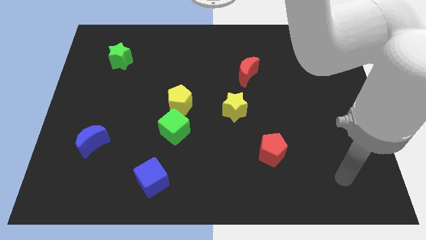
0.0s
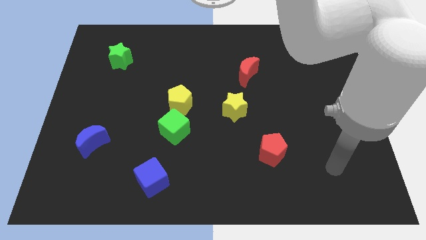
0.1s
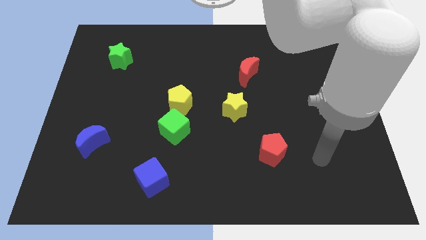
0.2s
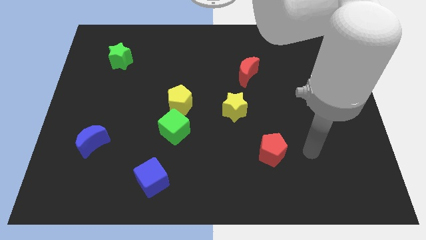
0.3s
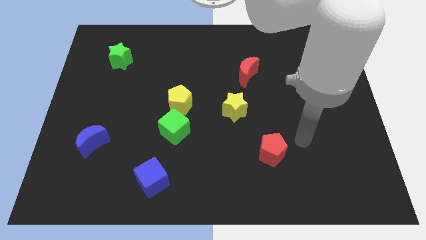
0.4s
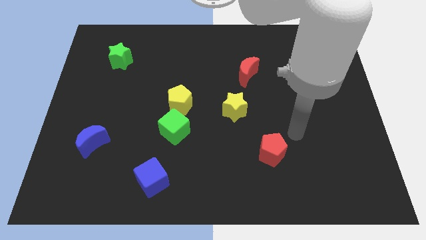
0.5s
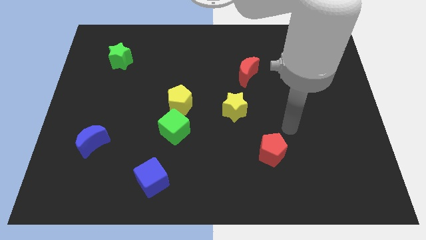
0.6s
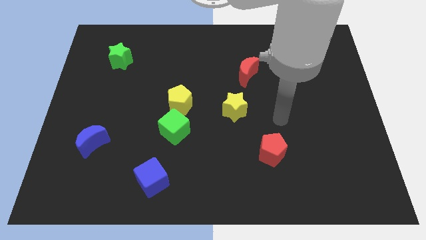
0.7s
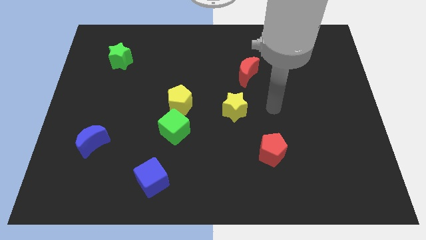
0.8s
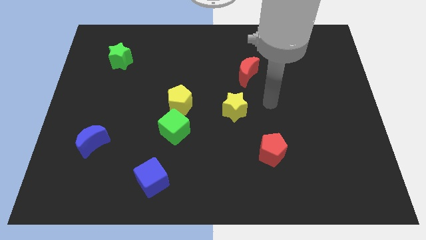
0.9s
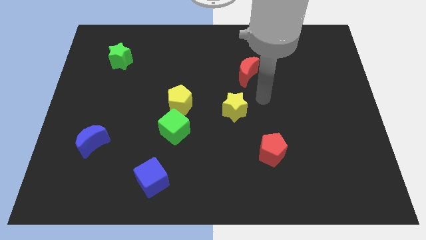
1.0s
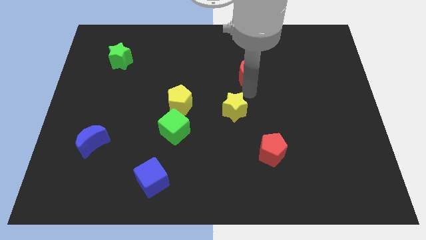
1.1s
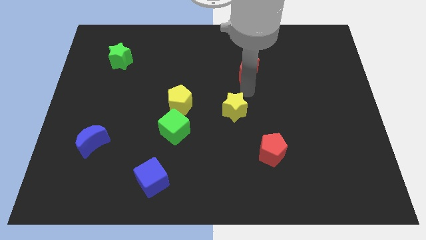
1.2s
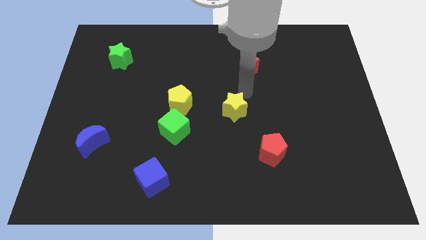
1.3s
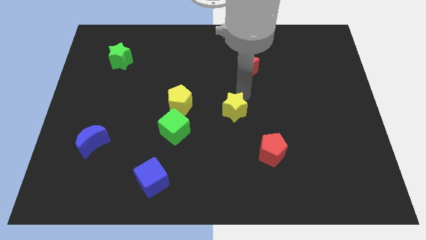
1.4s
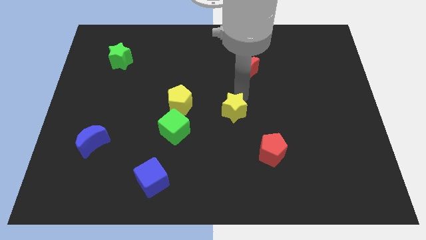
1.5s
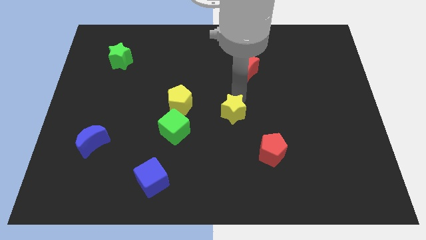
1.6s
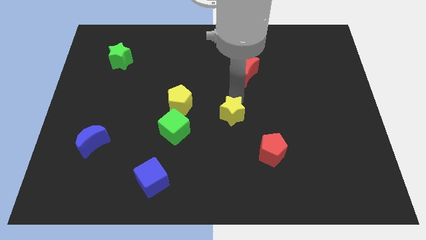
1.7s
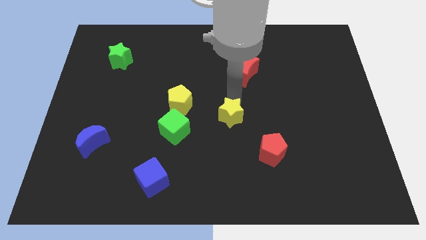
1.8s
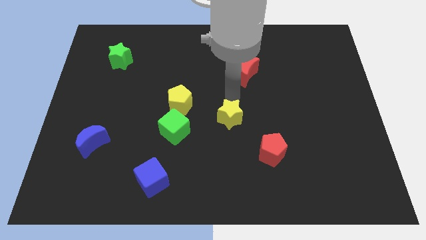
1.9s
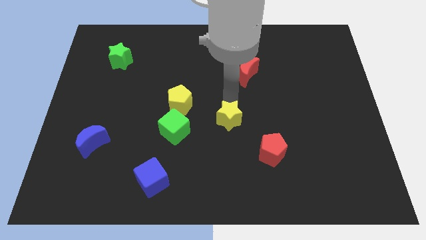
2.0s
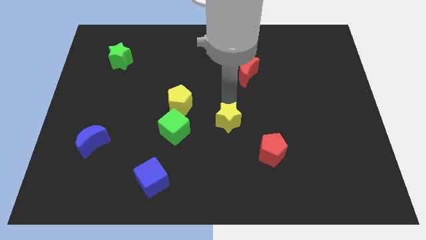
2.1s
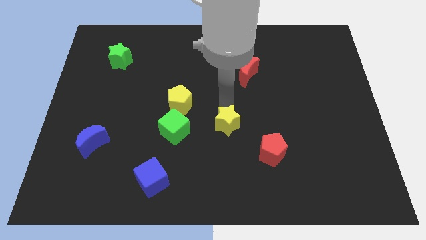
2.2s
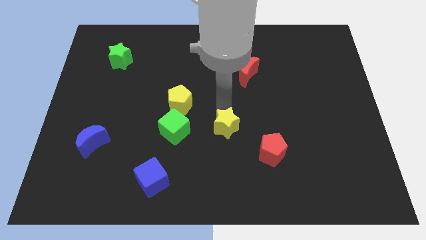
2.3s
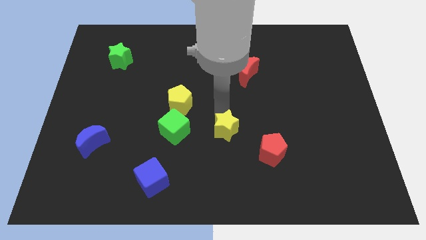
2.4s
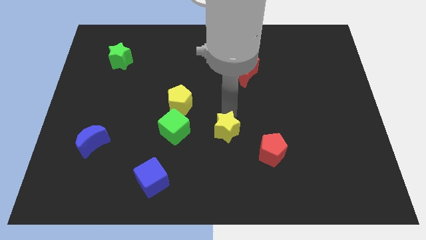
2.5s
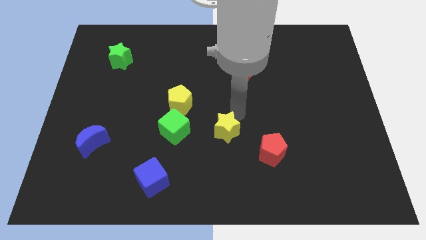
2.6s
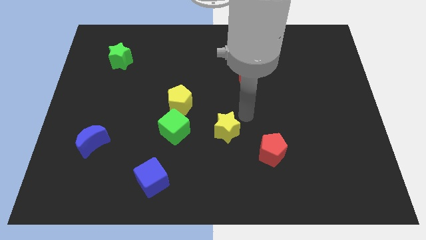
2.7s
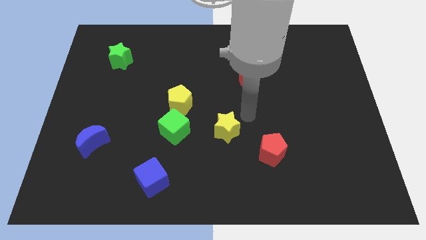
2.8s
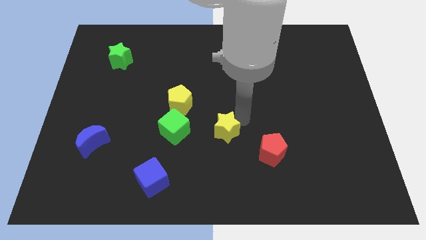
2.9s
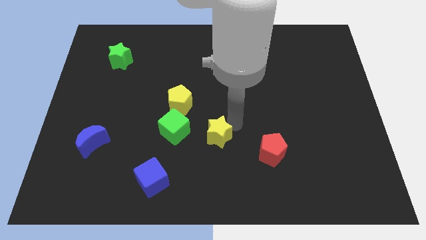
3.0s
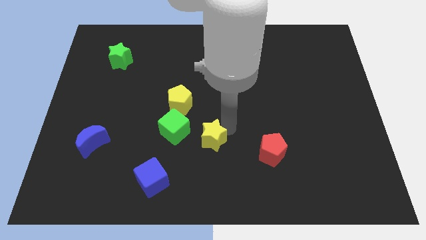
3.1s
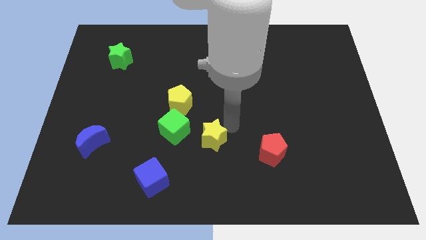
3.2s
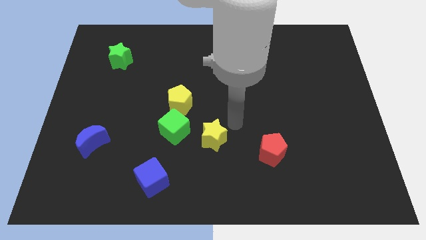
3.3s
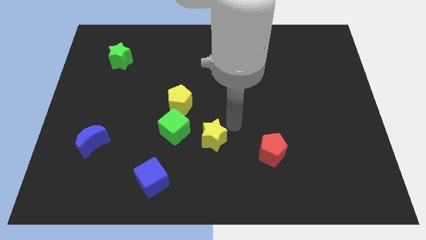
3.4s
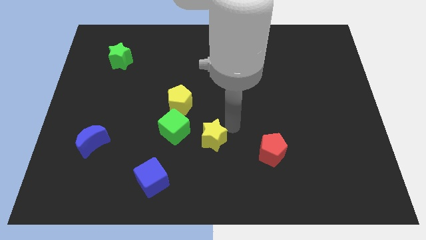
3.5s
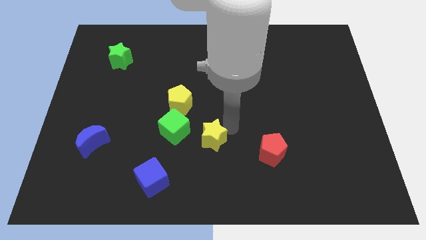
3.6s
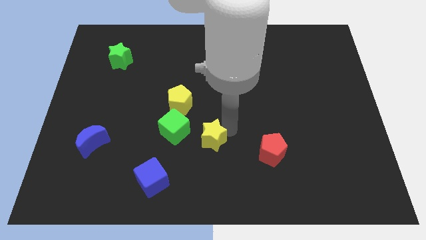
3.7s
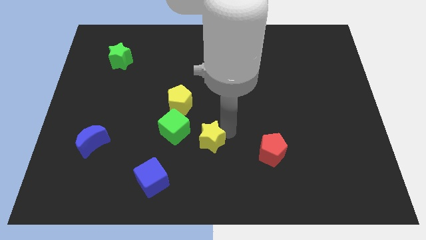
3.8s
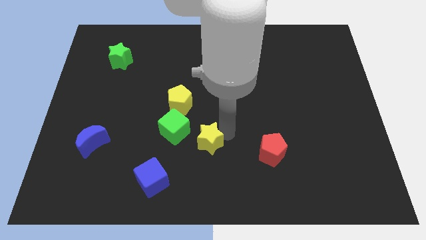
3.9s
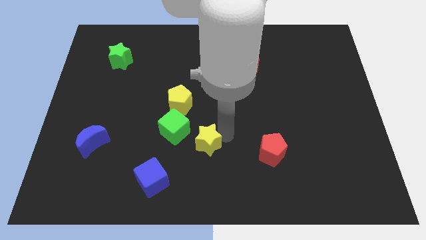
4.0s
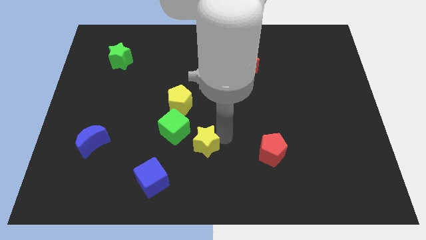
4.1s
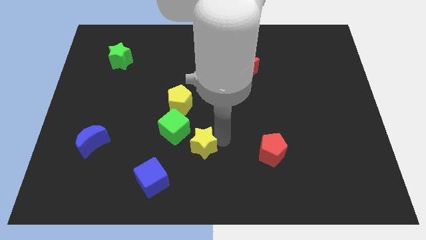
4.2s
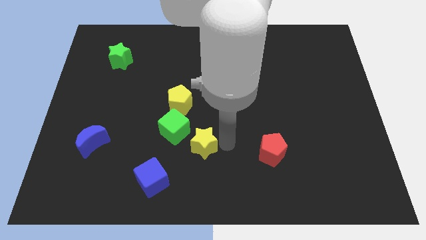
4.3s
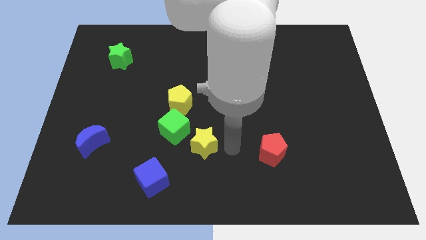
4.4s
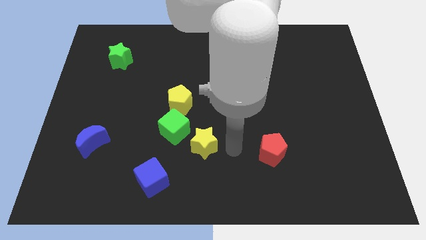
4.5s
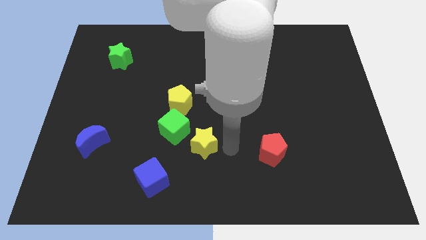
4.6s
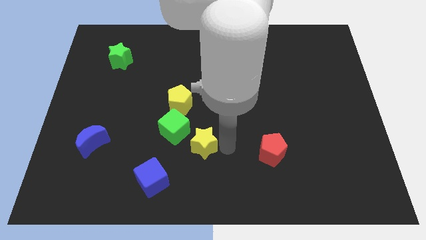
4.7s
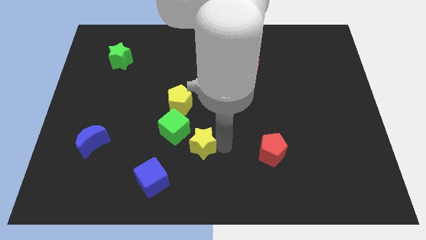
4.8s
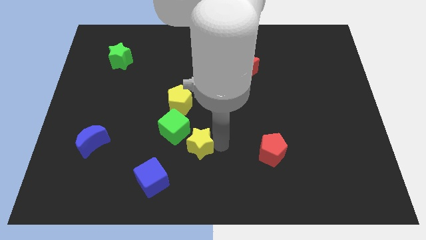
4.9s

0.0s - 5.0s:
move the yellow star to the bottom of the yellow pentagon

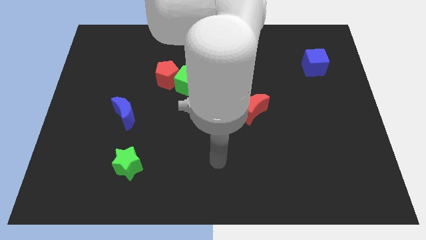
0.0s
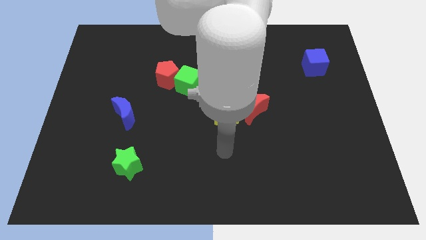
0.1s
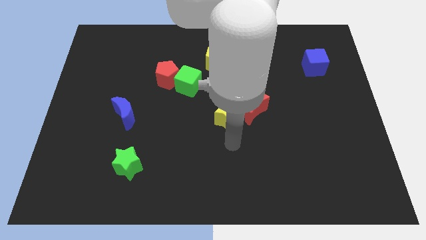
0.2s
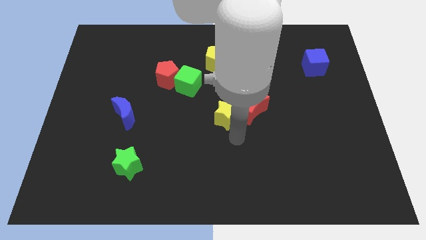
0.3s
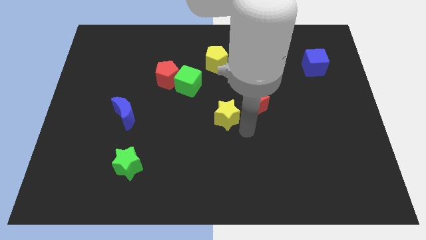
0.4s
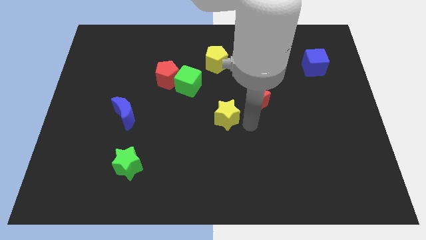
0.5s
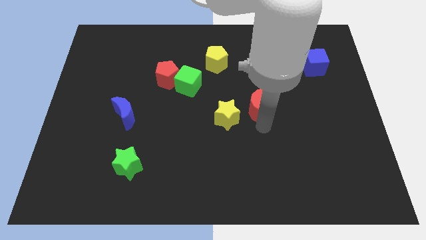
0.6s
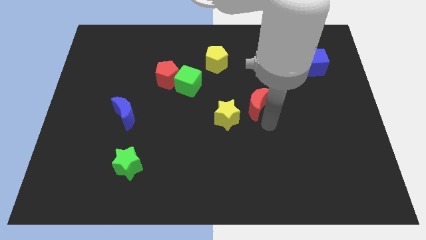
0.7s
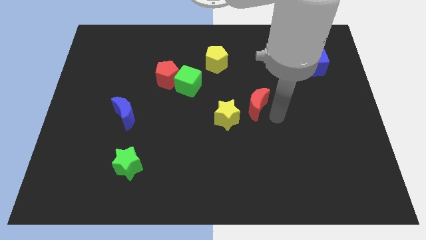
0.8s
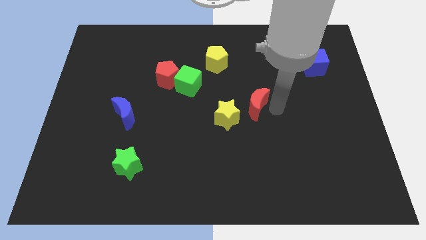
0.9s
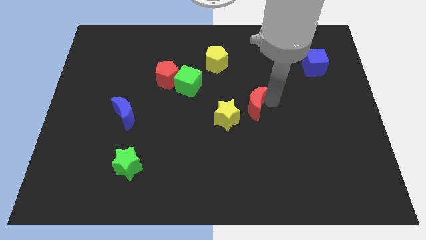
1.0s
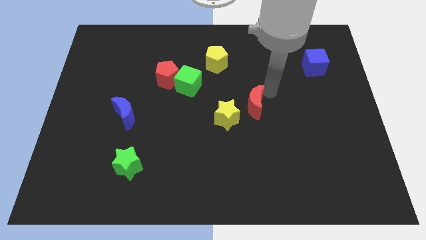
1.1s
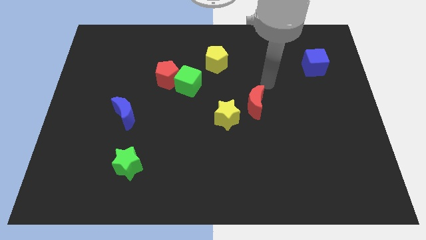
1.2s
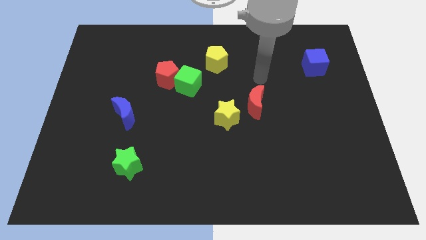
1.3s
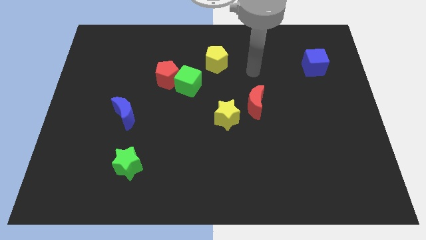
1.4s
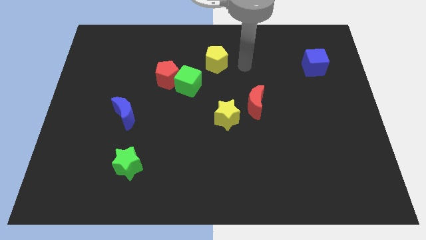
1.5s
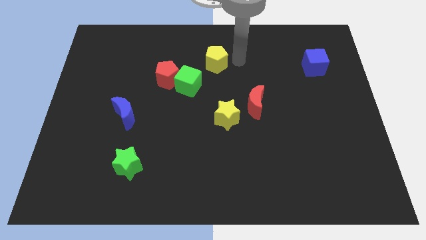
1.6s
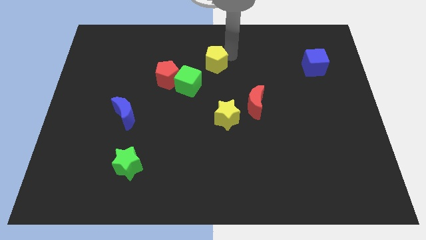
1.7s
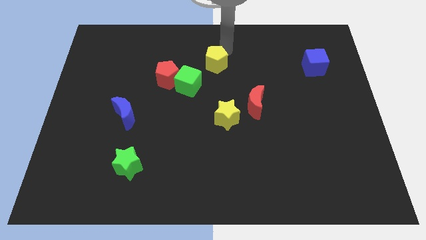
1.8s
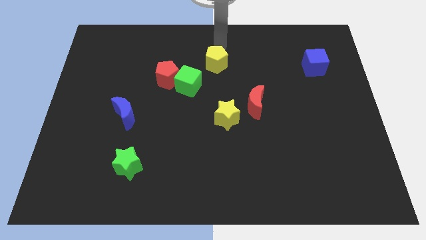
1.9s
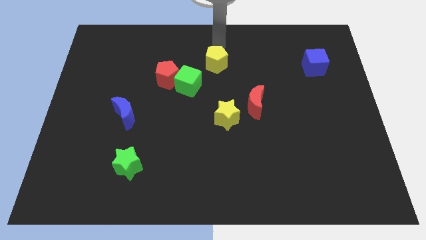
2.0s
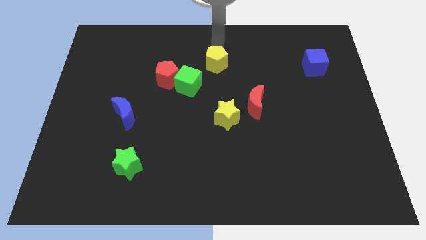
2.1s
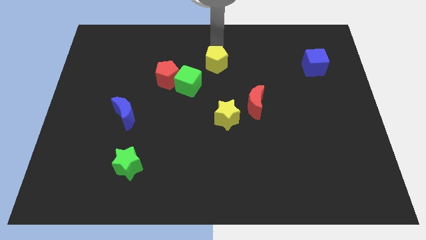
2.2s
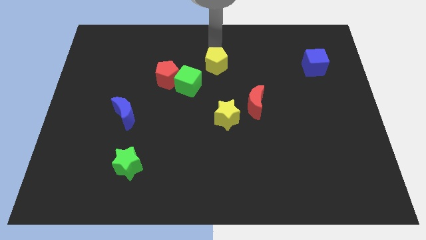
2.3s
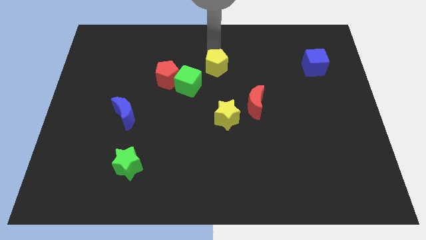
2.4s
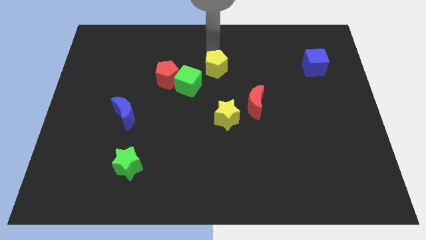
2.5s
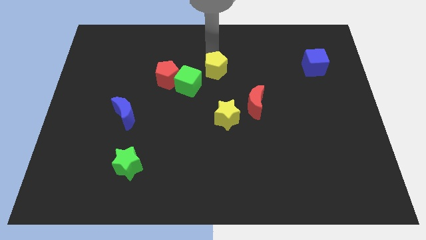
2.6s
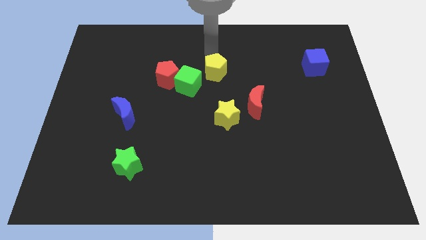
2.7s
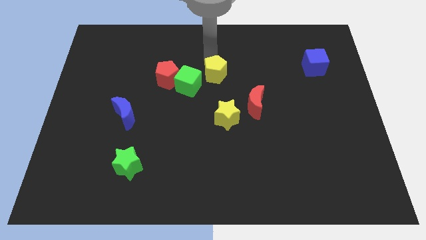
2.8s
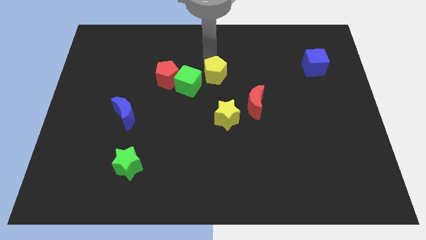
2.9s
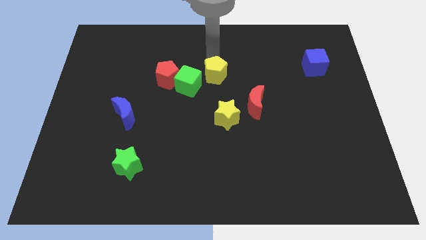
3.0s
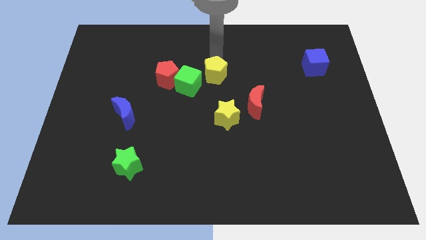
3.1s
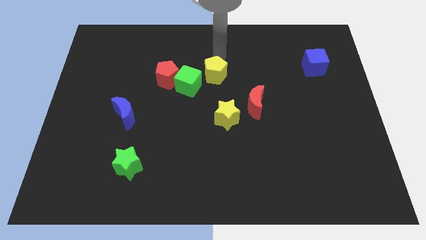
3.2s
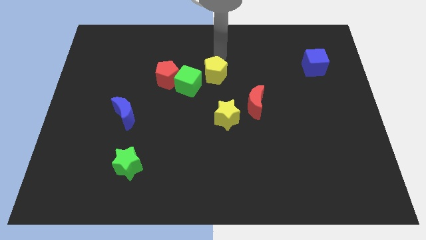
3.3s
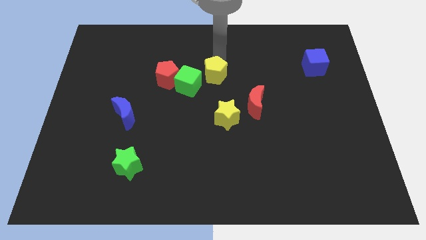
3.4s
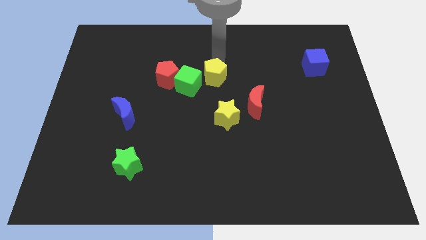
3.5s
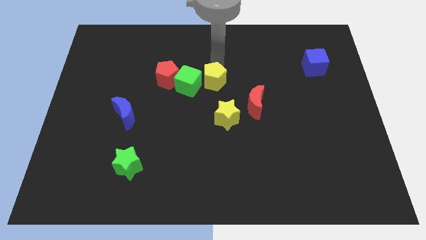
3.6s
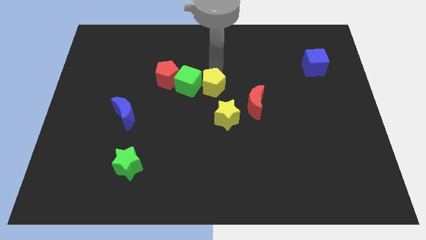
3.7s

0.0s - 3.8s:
push the yellow pentagon diagonally down and to the right of the green cube
